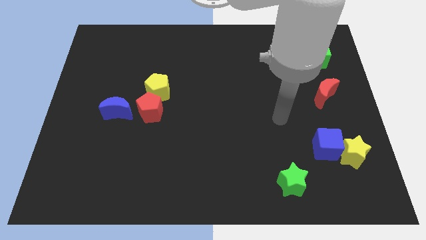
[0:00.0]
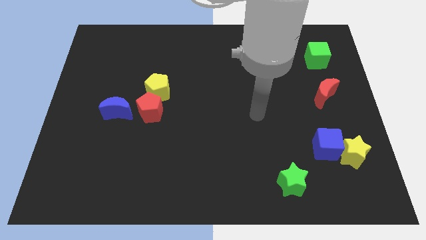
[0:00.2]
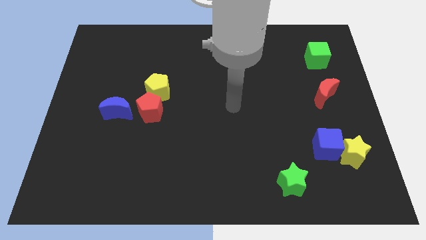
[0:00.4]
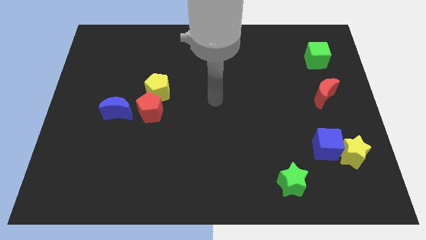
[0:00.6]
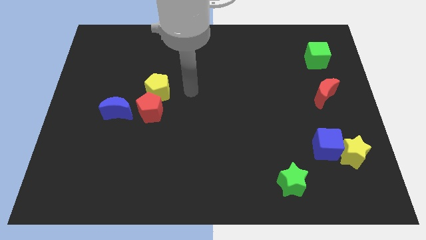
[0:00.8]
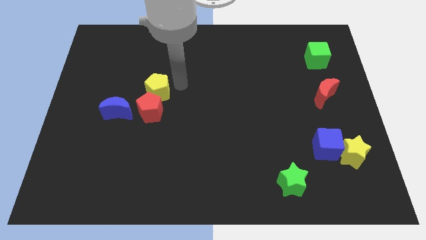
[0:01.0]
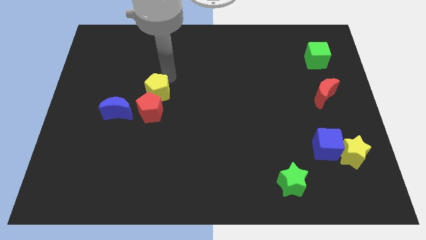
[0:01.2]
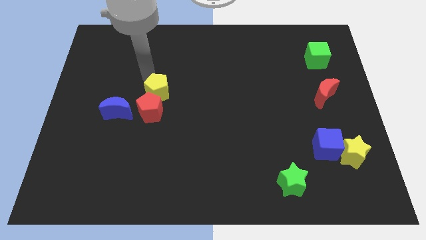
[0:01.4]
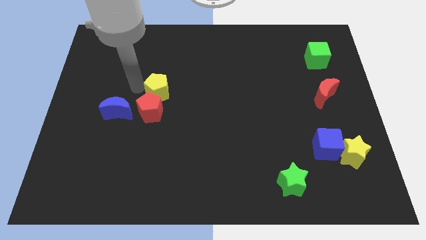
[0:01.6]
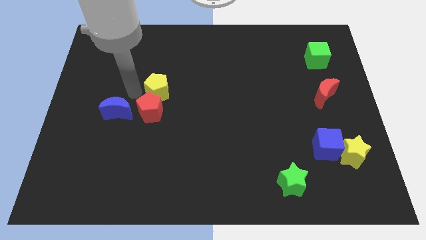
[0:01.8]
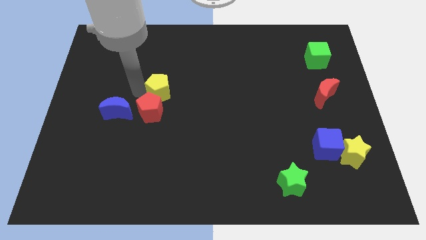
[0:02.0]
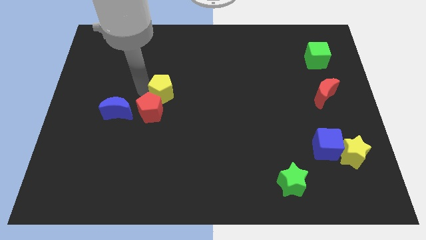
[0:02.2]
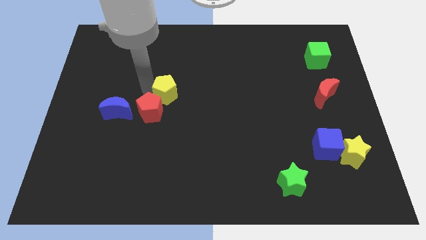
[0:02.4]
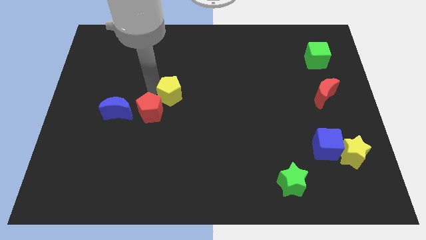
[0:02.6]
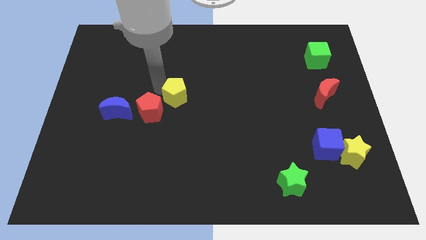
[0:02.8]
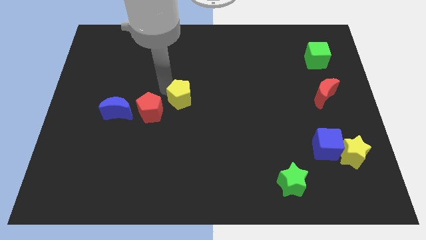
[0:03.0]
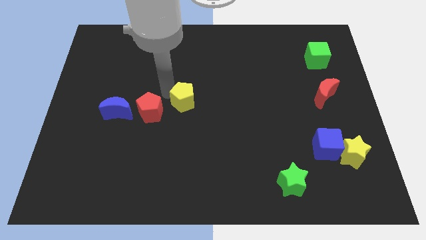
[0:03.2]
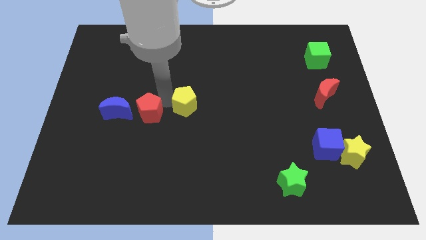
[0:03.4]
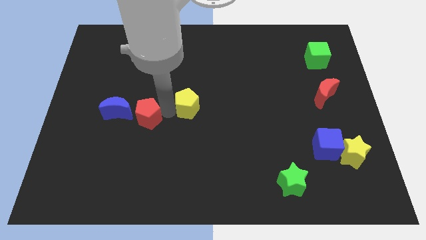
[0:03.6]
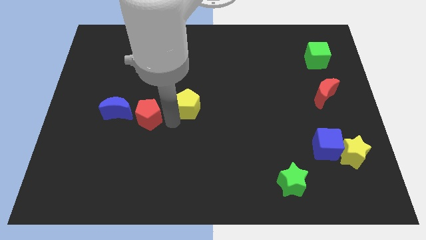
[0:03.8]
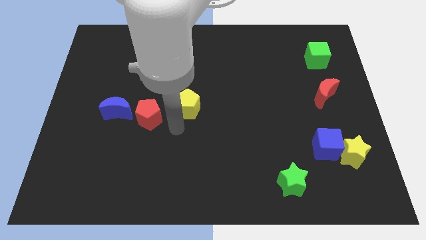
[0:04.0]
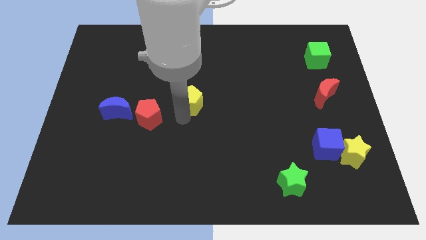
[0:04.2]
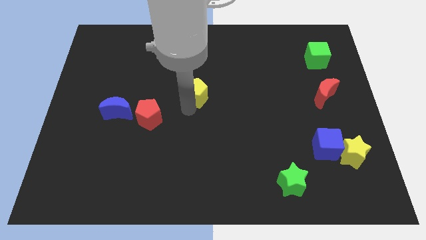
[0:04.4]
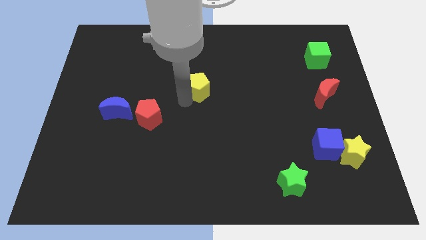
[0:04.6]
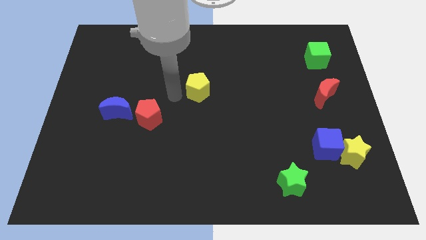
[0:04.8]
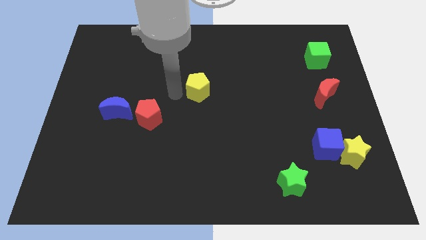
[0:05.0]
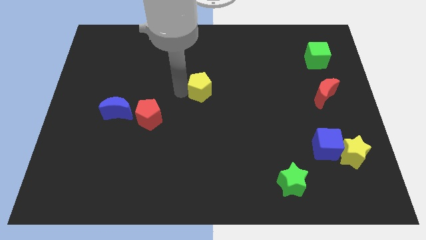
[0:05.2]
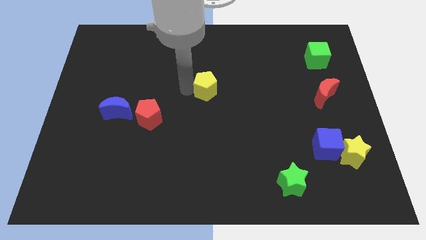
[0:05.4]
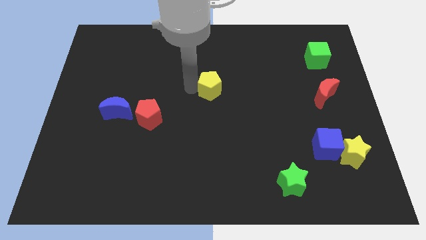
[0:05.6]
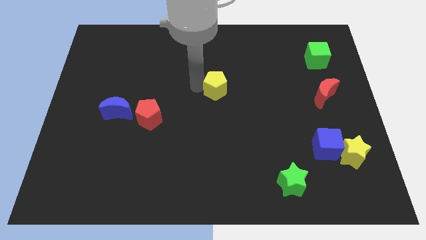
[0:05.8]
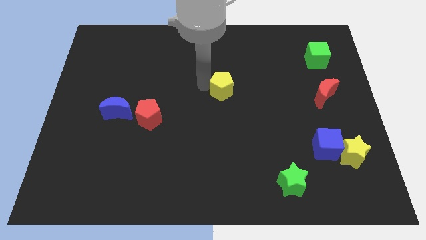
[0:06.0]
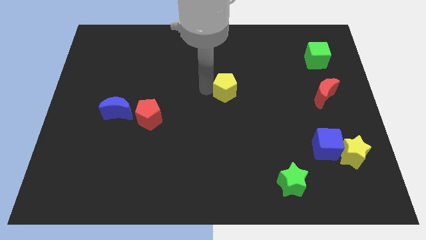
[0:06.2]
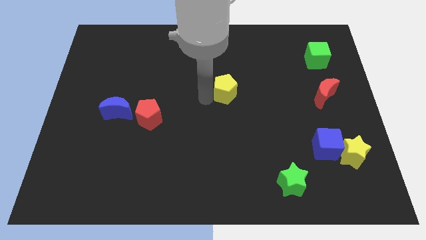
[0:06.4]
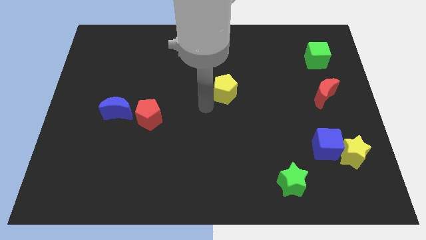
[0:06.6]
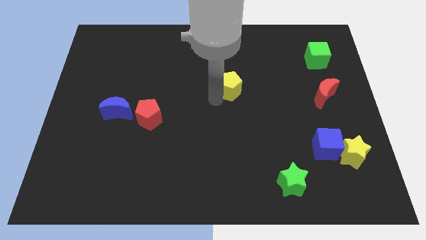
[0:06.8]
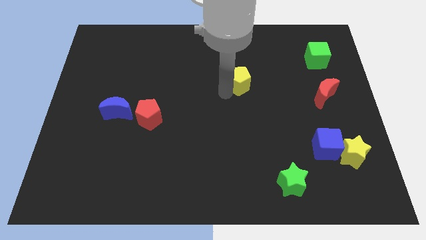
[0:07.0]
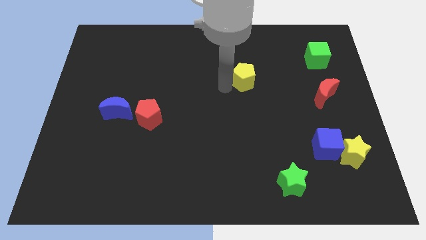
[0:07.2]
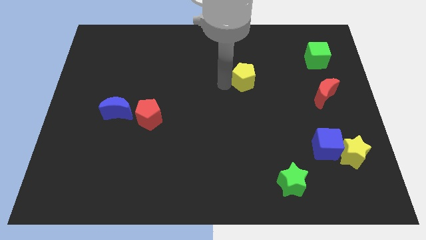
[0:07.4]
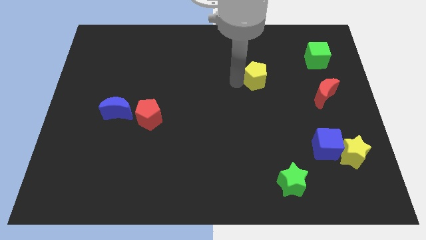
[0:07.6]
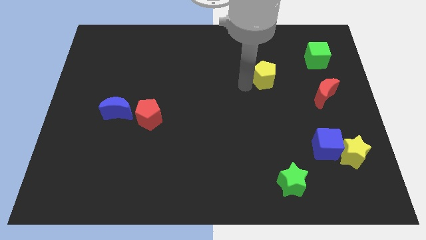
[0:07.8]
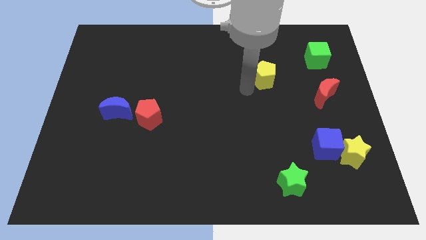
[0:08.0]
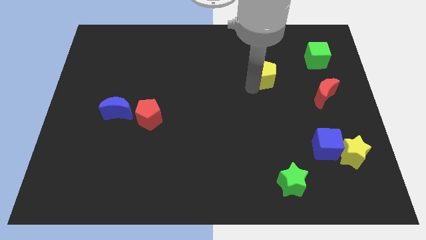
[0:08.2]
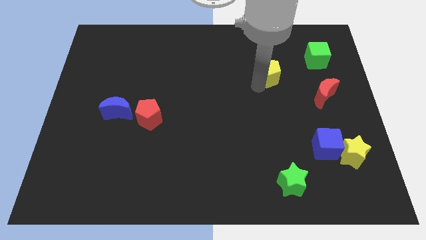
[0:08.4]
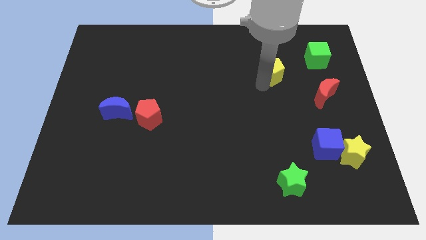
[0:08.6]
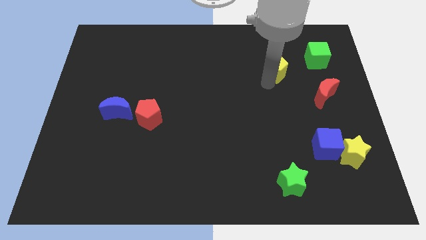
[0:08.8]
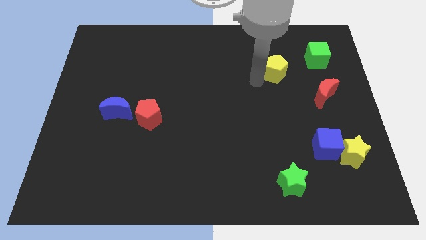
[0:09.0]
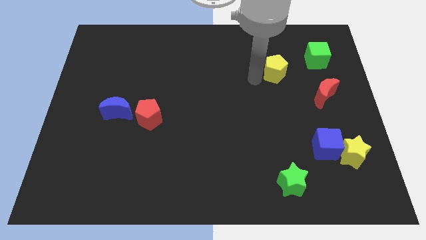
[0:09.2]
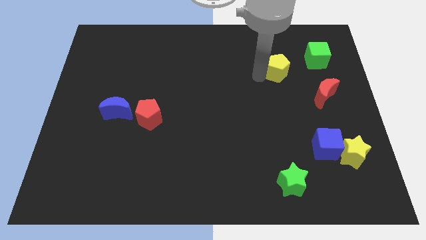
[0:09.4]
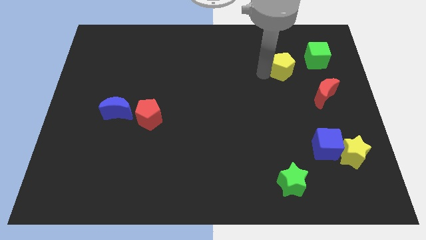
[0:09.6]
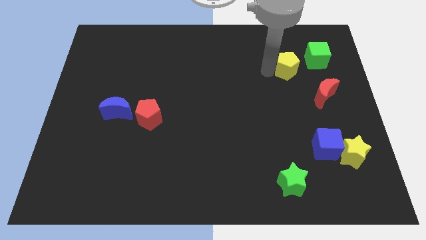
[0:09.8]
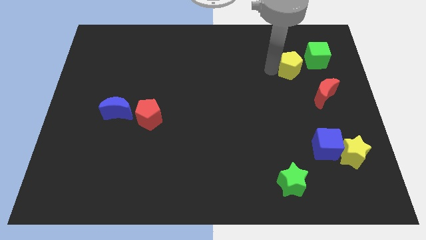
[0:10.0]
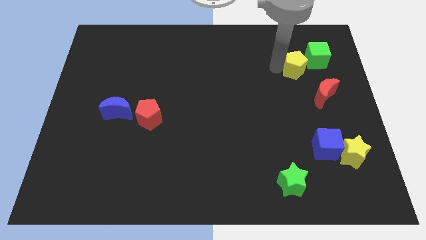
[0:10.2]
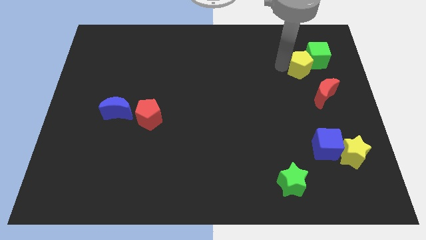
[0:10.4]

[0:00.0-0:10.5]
push the yellow pentagon close to the green cube

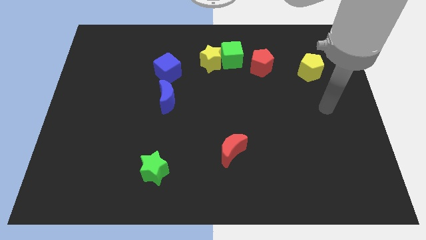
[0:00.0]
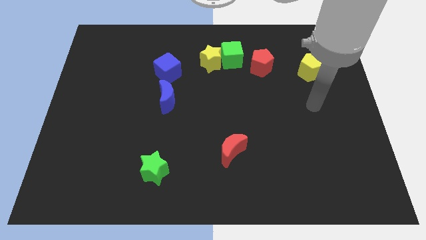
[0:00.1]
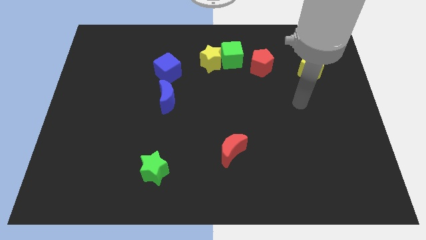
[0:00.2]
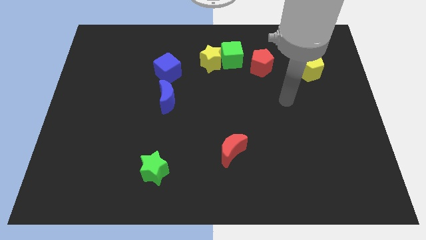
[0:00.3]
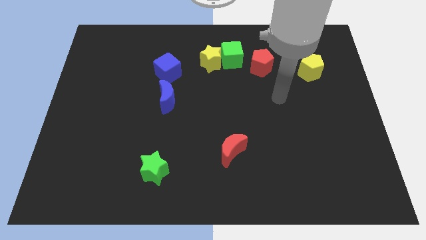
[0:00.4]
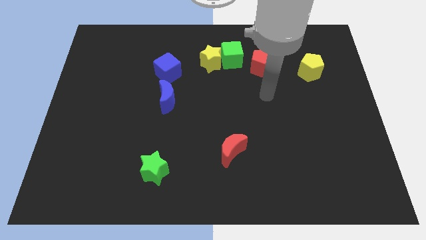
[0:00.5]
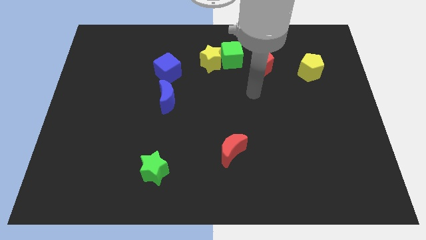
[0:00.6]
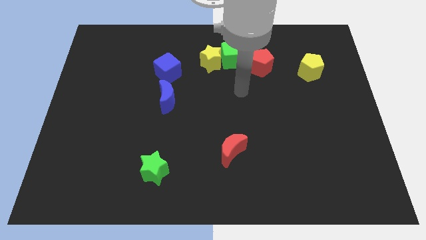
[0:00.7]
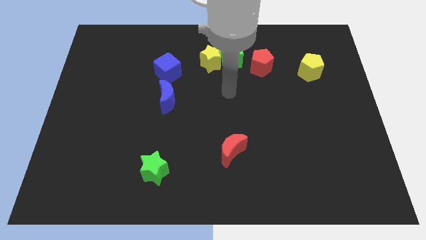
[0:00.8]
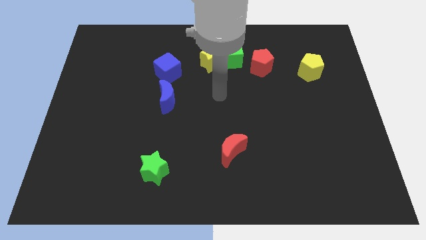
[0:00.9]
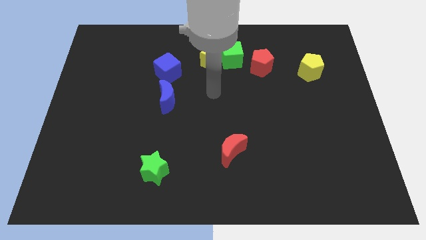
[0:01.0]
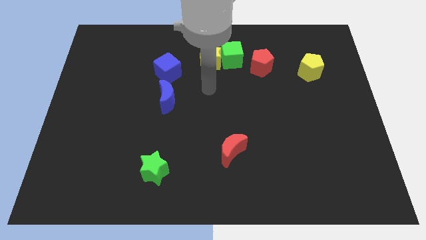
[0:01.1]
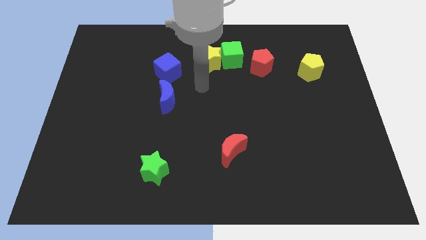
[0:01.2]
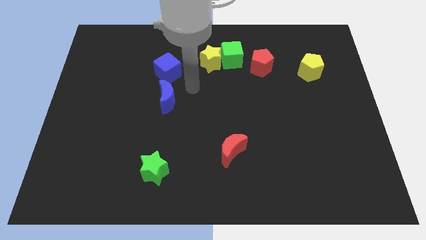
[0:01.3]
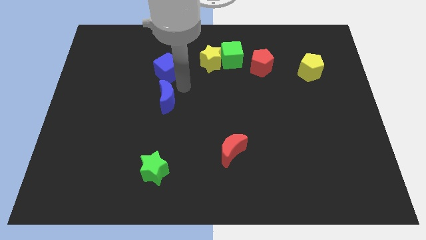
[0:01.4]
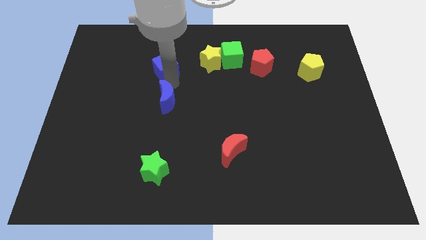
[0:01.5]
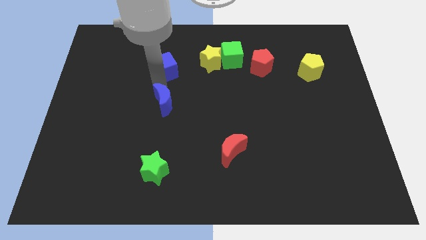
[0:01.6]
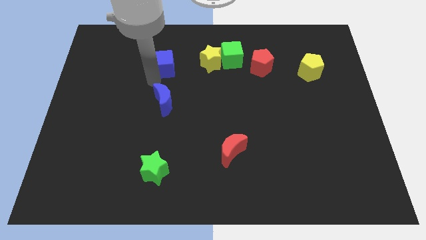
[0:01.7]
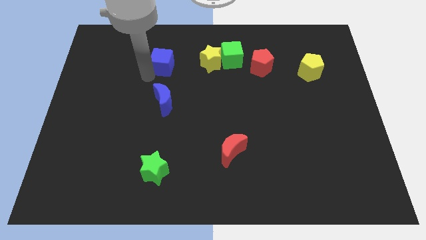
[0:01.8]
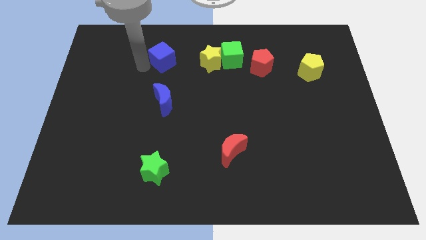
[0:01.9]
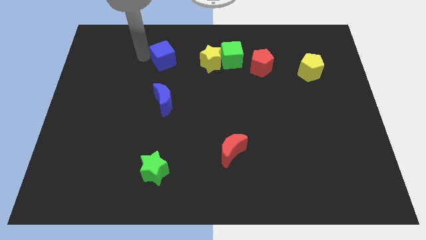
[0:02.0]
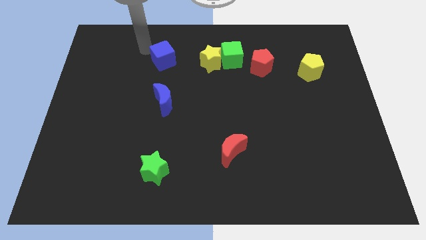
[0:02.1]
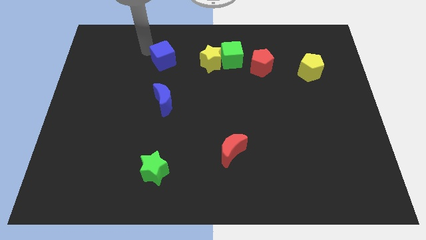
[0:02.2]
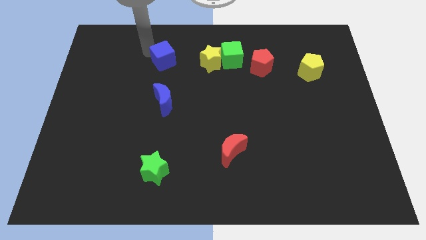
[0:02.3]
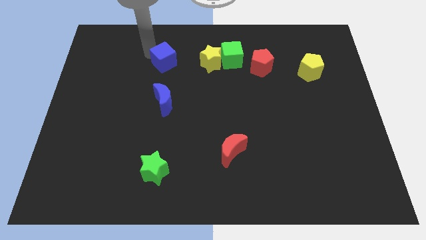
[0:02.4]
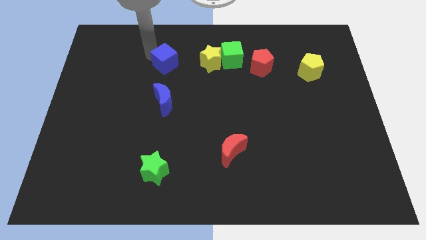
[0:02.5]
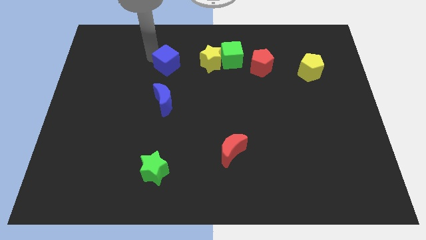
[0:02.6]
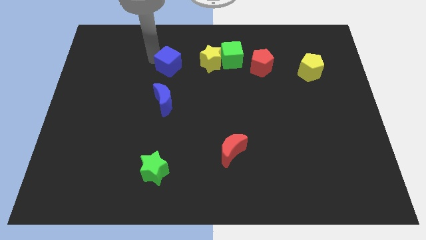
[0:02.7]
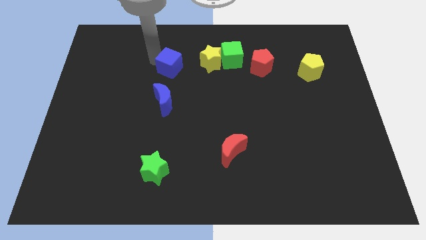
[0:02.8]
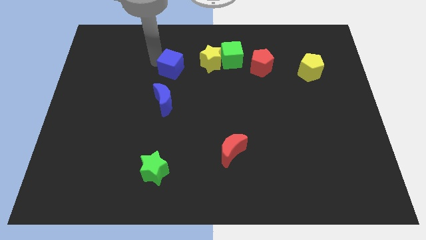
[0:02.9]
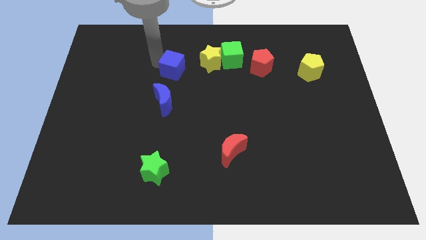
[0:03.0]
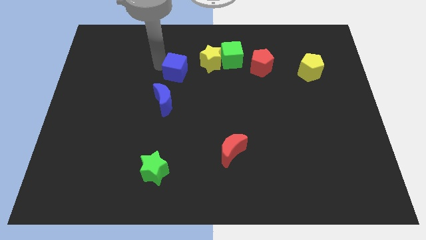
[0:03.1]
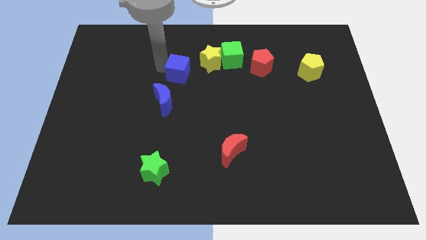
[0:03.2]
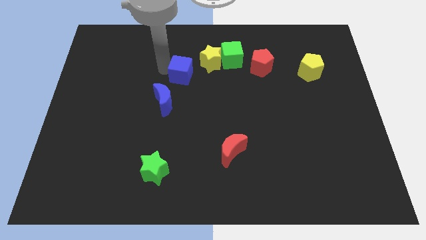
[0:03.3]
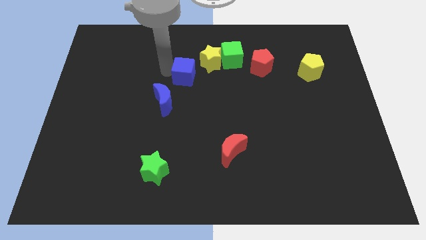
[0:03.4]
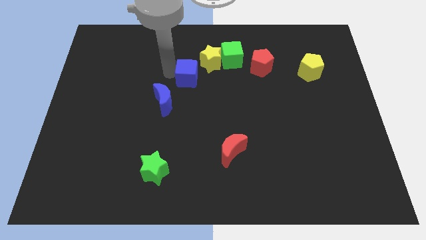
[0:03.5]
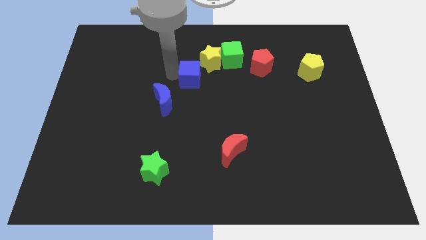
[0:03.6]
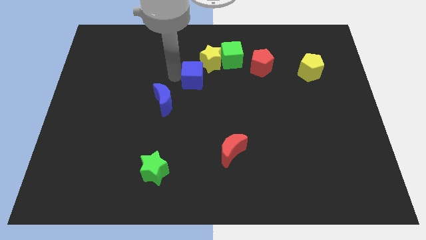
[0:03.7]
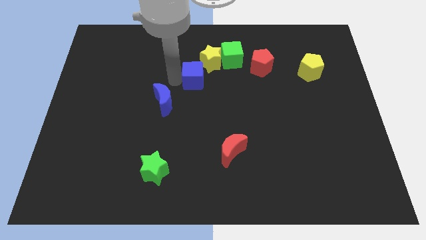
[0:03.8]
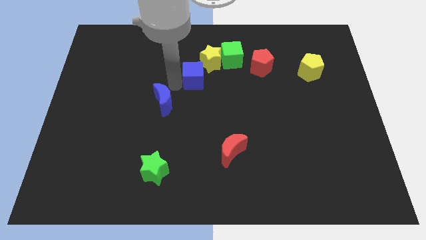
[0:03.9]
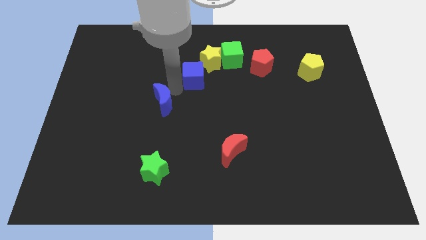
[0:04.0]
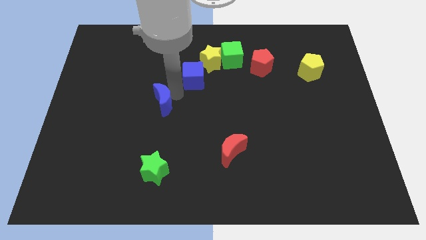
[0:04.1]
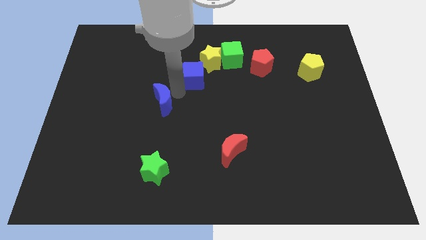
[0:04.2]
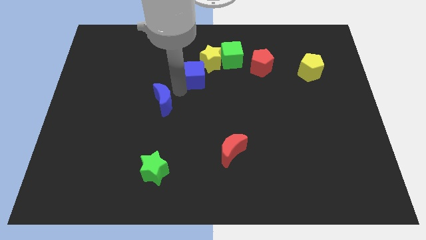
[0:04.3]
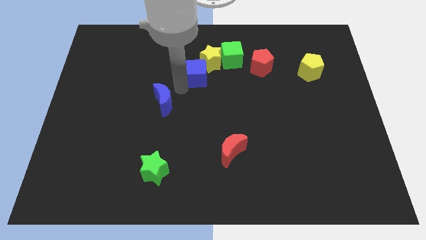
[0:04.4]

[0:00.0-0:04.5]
push the blue cube to the yellow star
